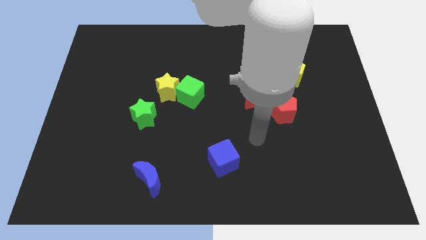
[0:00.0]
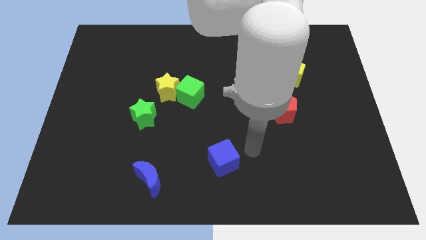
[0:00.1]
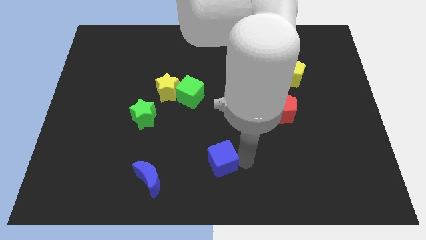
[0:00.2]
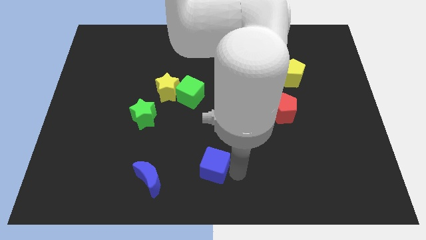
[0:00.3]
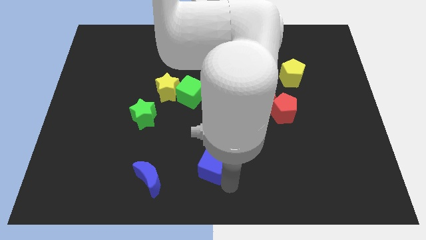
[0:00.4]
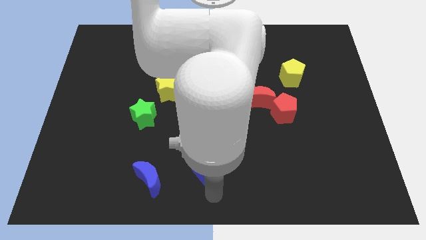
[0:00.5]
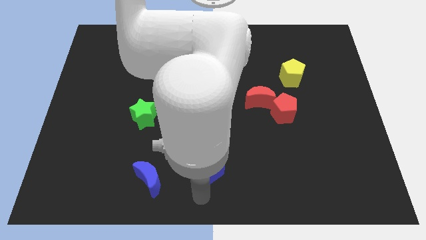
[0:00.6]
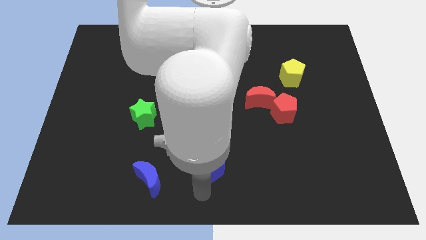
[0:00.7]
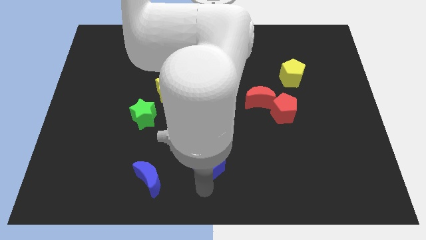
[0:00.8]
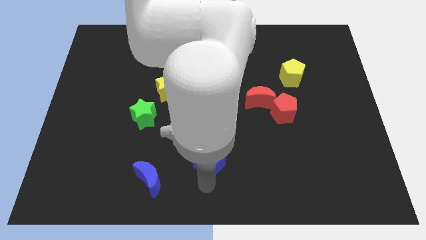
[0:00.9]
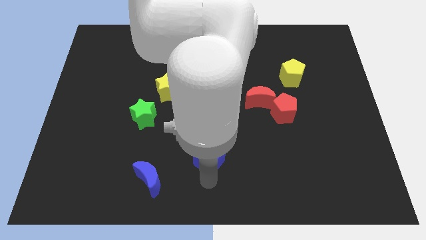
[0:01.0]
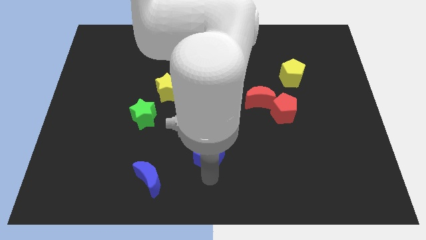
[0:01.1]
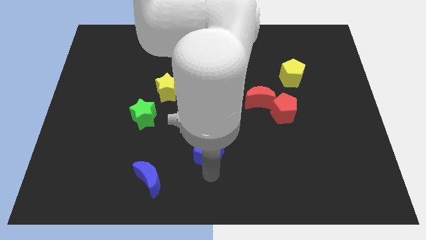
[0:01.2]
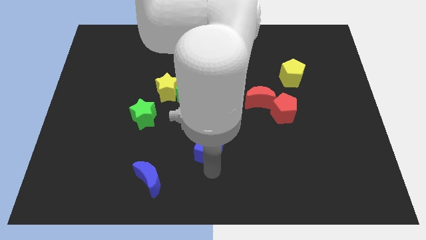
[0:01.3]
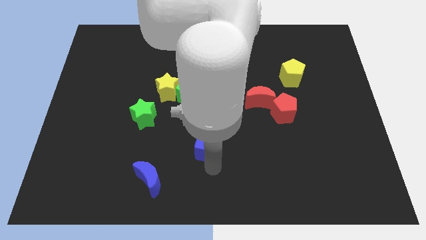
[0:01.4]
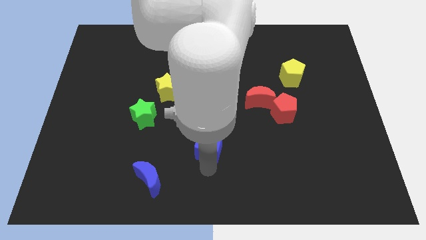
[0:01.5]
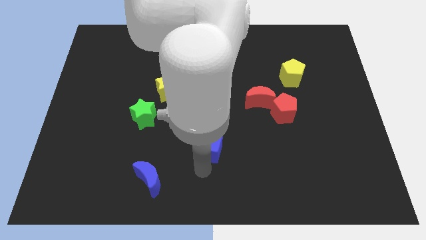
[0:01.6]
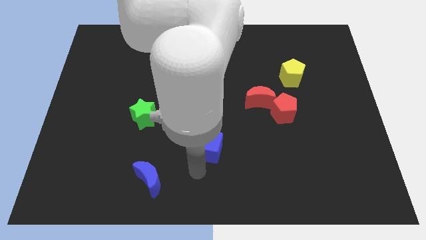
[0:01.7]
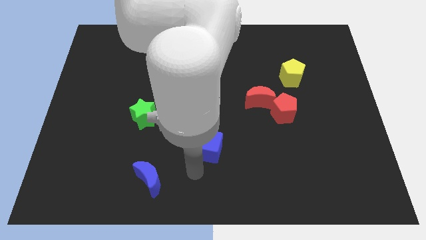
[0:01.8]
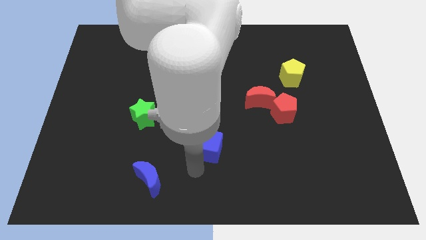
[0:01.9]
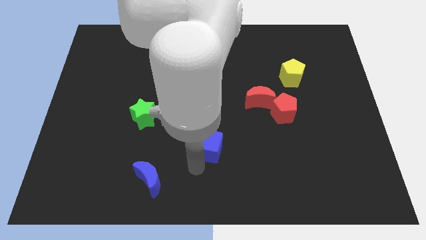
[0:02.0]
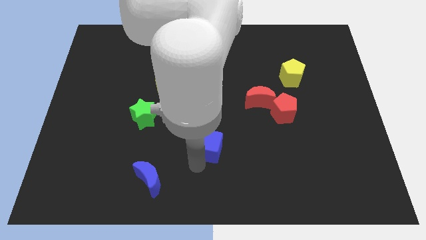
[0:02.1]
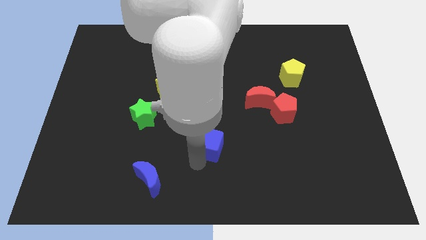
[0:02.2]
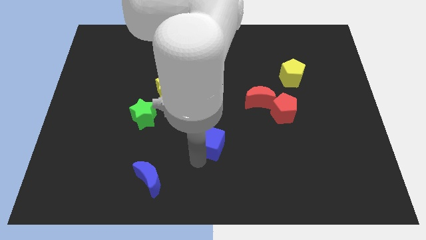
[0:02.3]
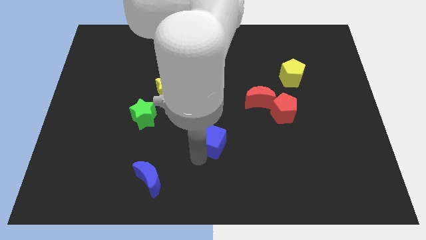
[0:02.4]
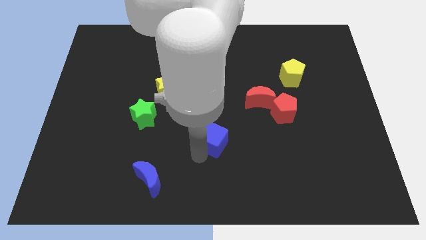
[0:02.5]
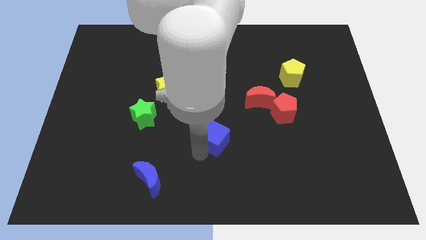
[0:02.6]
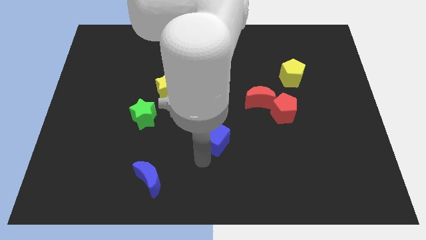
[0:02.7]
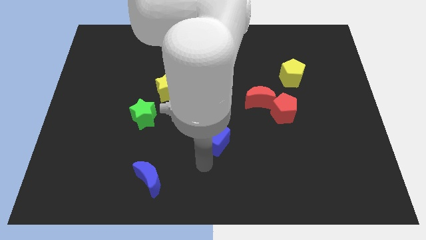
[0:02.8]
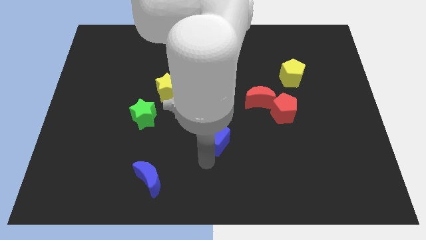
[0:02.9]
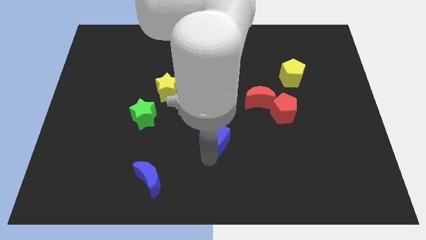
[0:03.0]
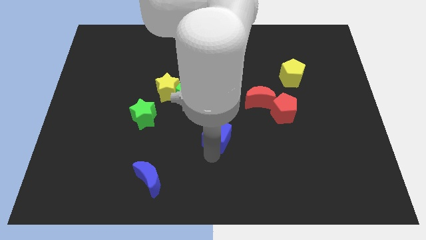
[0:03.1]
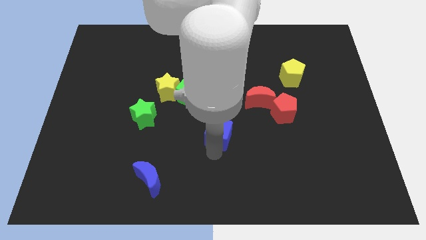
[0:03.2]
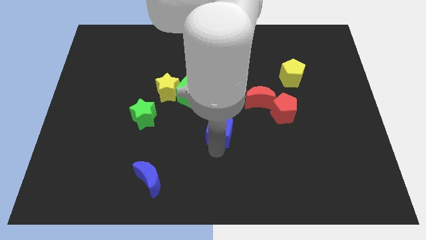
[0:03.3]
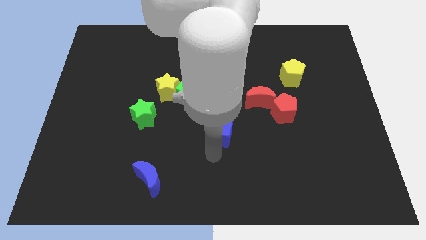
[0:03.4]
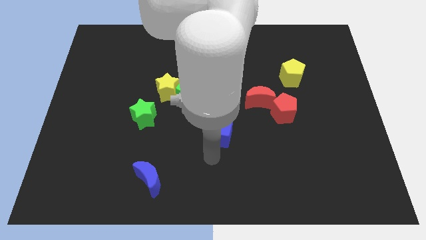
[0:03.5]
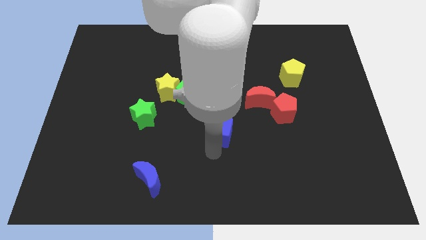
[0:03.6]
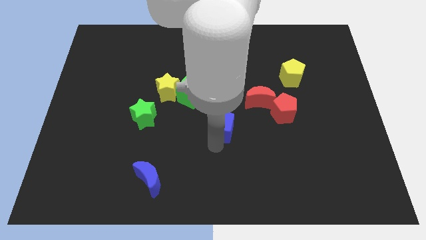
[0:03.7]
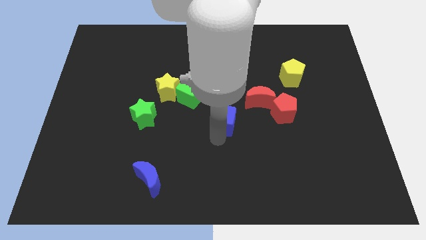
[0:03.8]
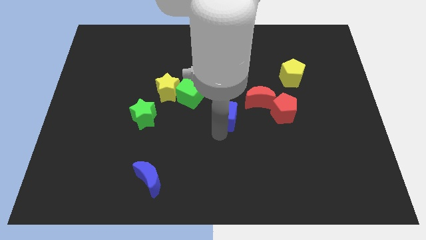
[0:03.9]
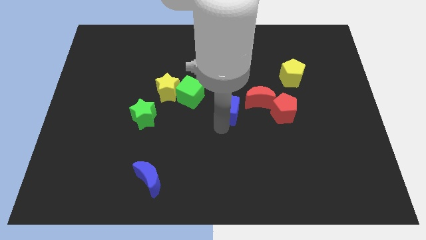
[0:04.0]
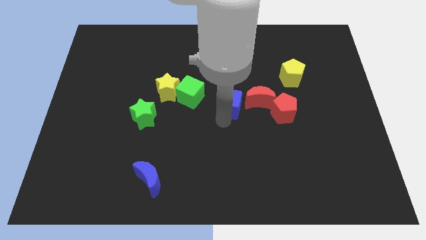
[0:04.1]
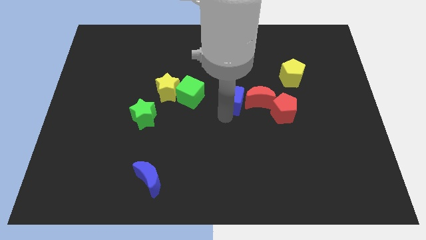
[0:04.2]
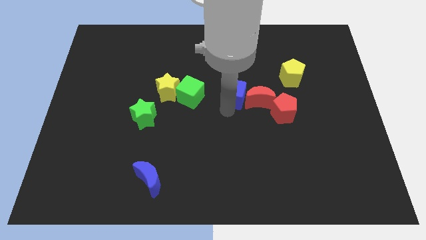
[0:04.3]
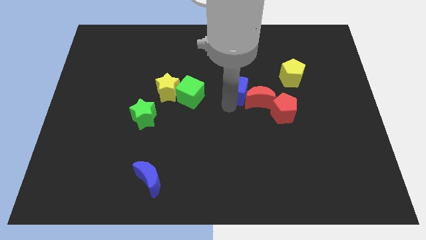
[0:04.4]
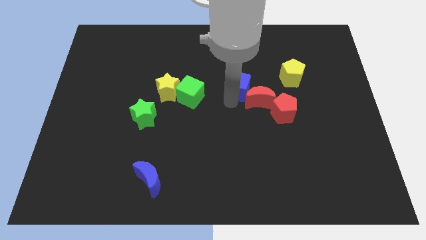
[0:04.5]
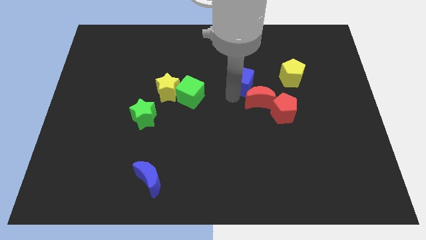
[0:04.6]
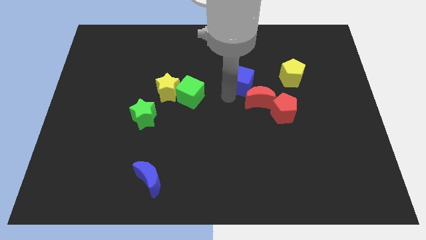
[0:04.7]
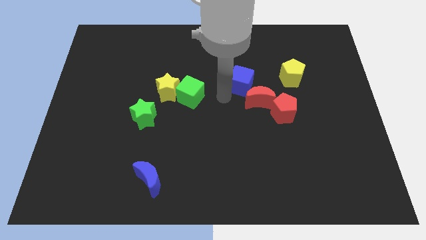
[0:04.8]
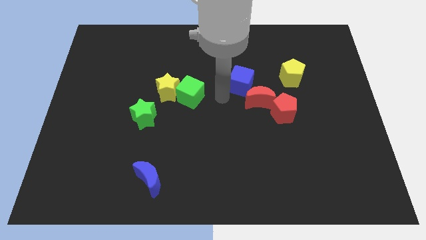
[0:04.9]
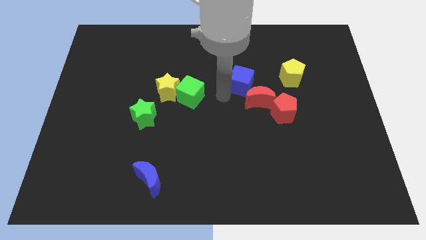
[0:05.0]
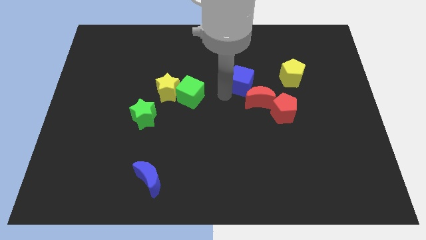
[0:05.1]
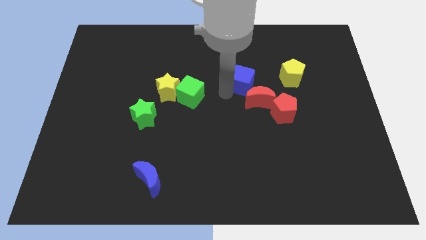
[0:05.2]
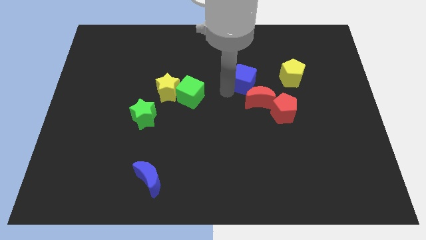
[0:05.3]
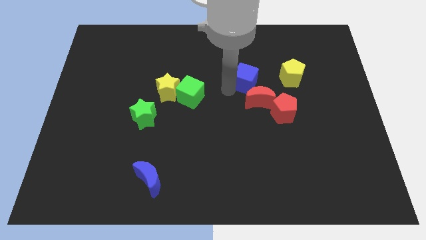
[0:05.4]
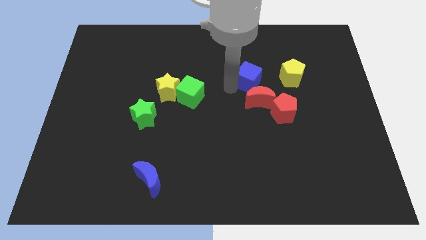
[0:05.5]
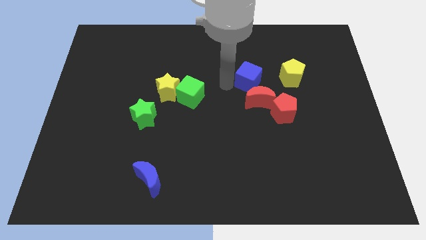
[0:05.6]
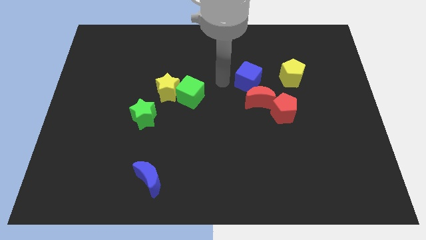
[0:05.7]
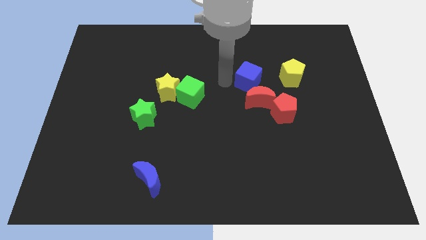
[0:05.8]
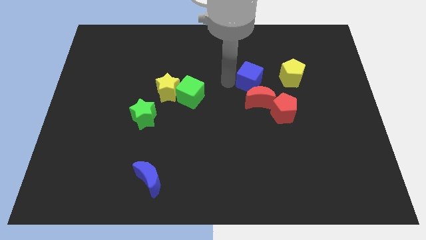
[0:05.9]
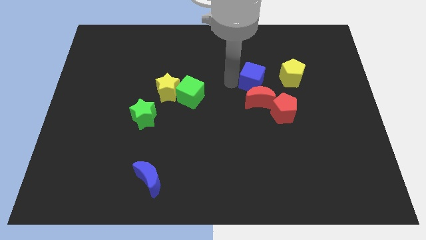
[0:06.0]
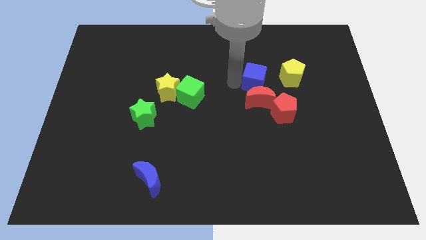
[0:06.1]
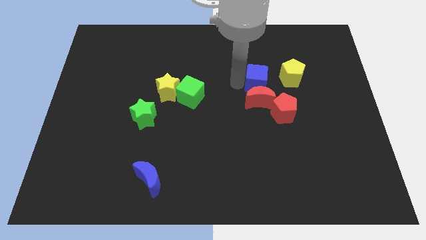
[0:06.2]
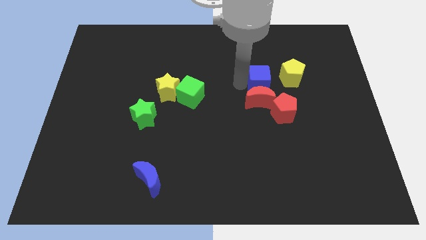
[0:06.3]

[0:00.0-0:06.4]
move the blue cube above the red pentagon
